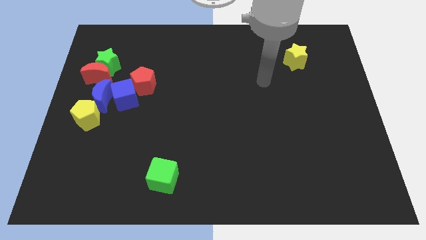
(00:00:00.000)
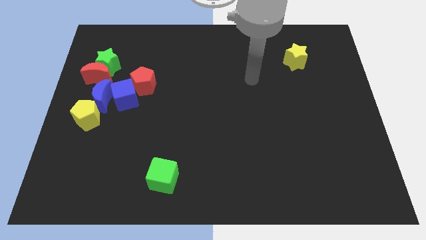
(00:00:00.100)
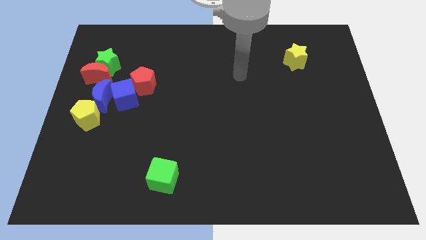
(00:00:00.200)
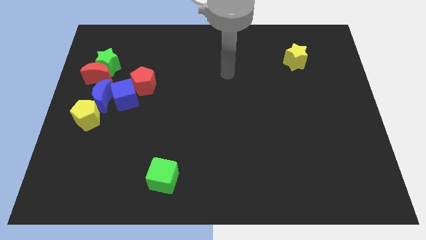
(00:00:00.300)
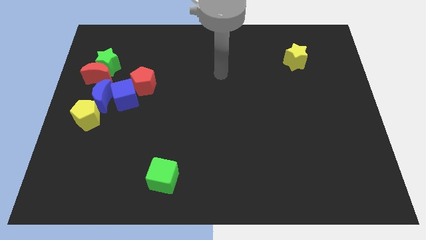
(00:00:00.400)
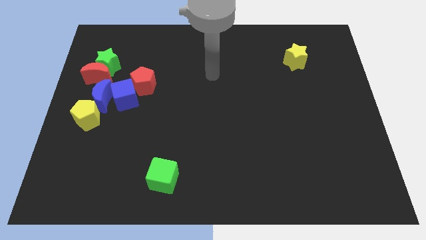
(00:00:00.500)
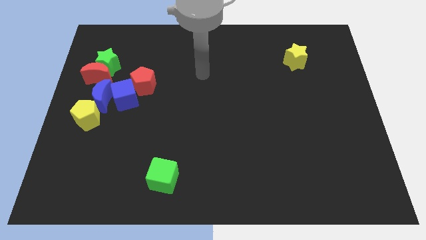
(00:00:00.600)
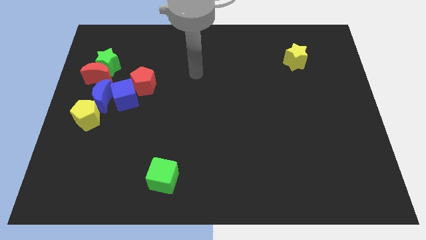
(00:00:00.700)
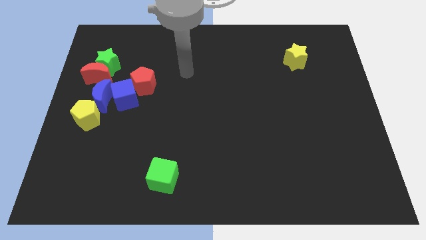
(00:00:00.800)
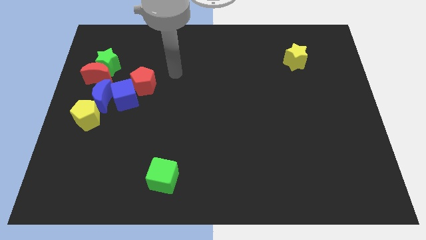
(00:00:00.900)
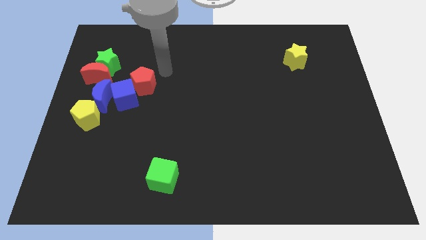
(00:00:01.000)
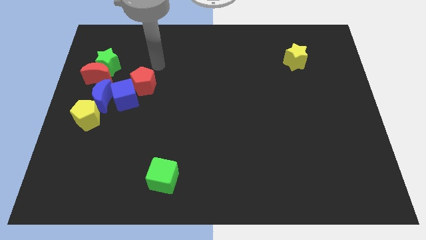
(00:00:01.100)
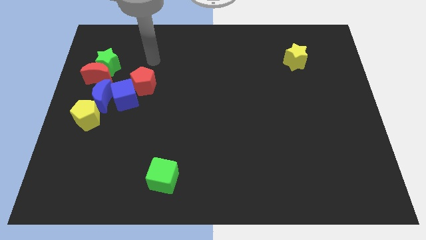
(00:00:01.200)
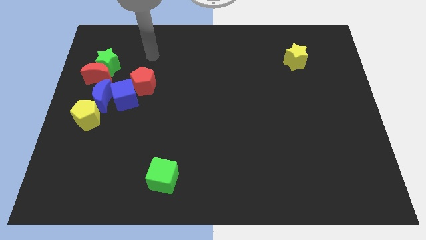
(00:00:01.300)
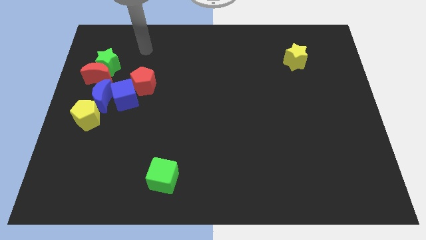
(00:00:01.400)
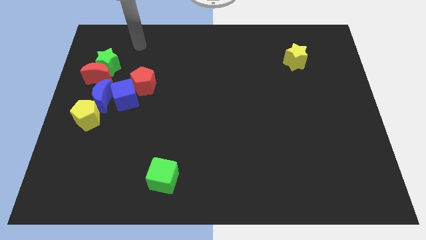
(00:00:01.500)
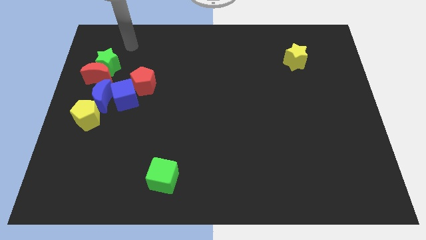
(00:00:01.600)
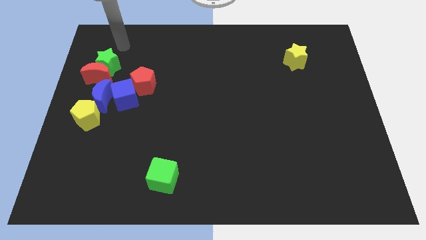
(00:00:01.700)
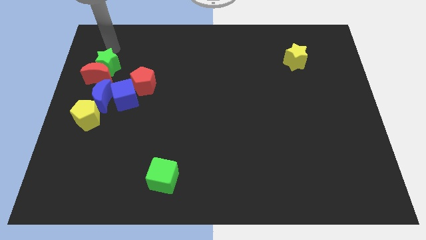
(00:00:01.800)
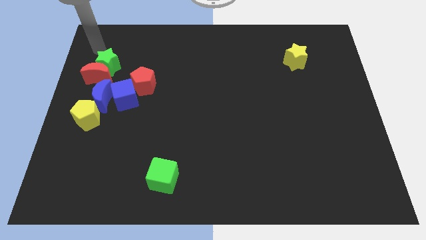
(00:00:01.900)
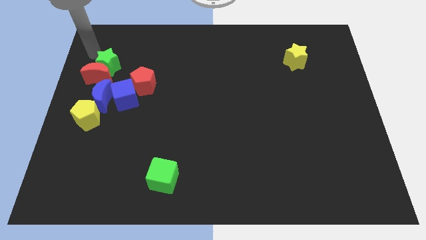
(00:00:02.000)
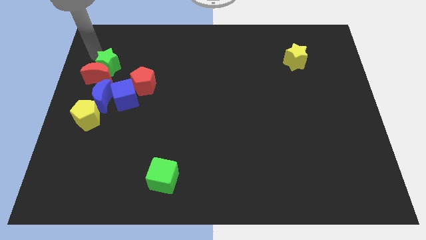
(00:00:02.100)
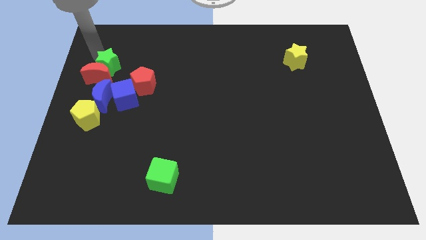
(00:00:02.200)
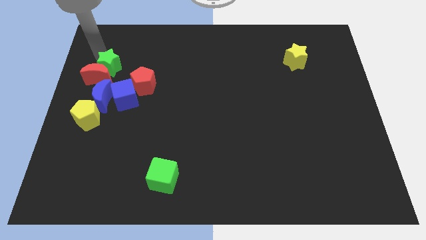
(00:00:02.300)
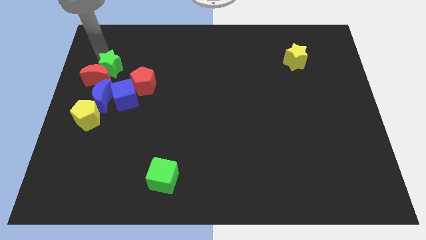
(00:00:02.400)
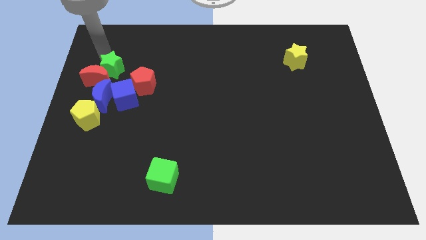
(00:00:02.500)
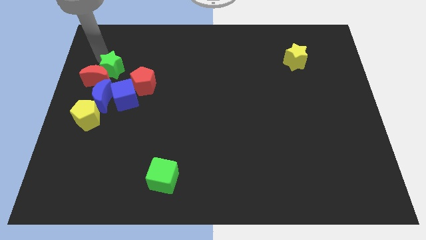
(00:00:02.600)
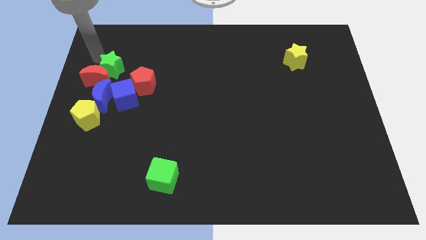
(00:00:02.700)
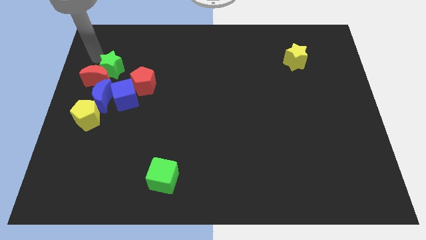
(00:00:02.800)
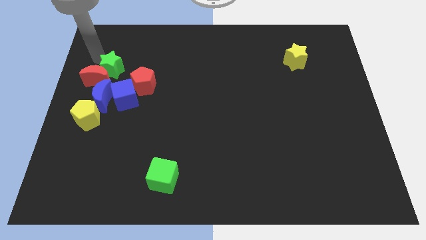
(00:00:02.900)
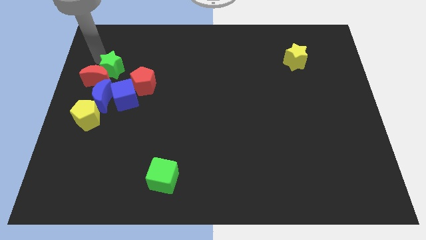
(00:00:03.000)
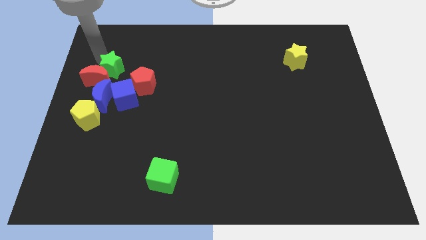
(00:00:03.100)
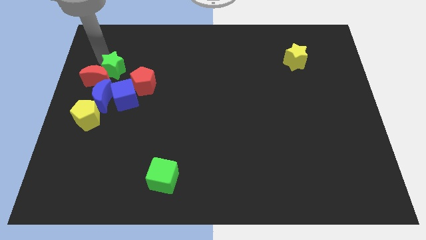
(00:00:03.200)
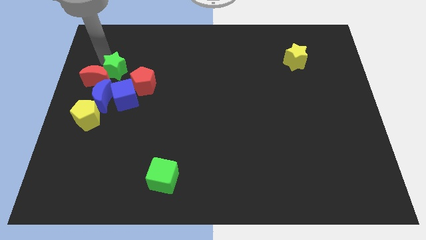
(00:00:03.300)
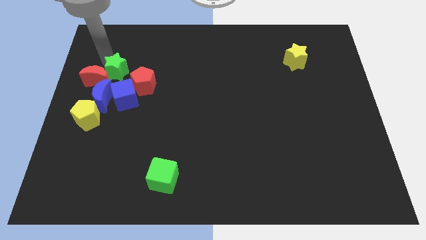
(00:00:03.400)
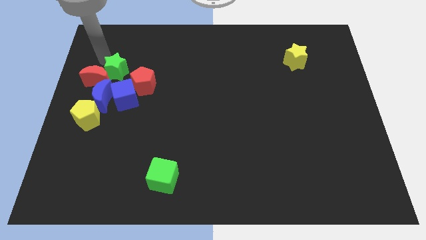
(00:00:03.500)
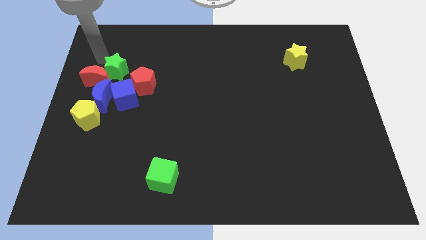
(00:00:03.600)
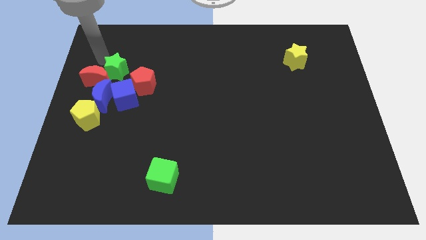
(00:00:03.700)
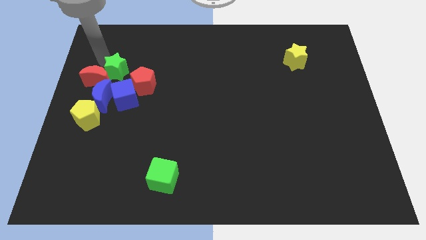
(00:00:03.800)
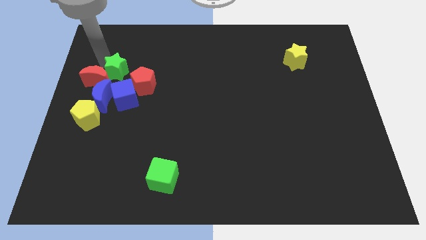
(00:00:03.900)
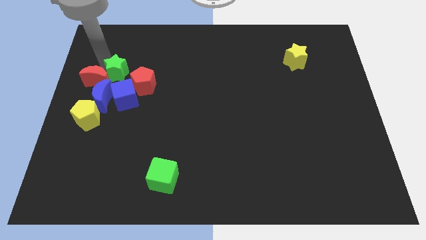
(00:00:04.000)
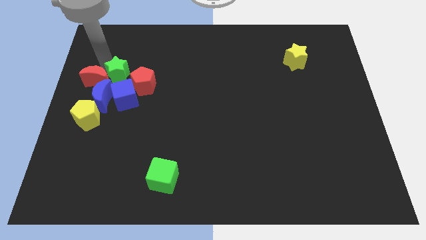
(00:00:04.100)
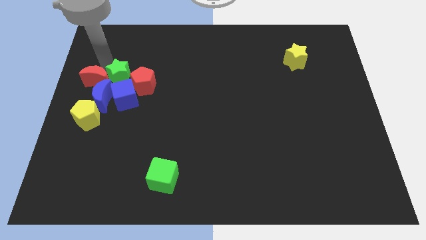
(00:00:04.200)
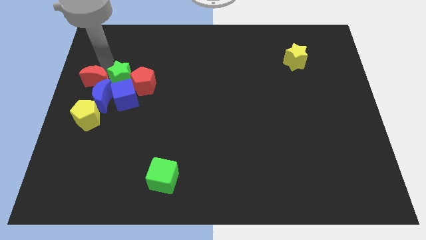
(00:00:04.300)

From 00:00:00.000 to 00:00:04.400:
put the green star to the red pentagon

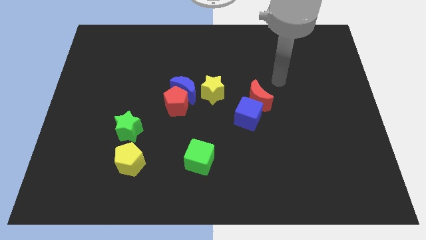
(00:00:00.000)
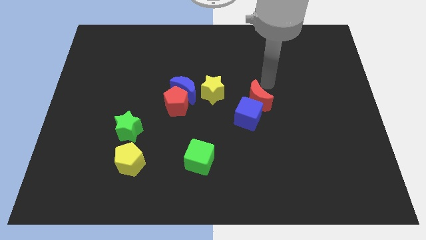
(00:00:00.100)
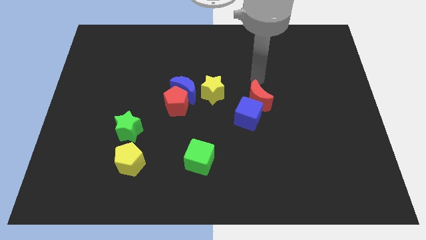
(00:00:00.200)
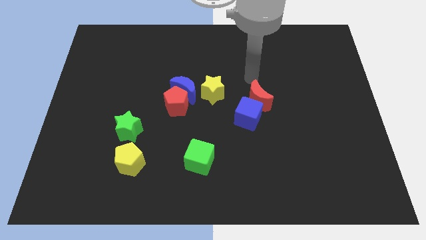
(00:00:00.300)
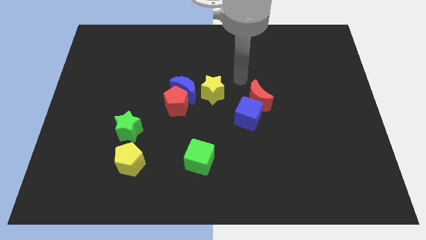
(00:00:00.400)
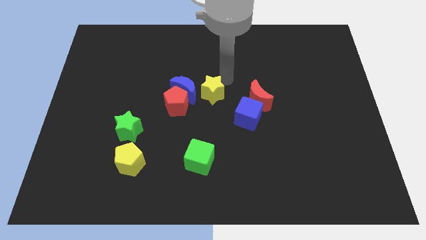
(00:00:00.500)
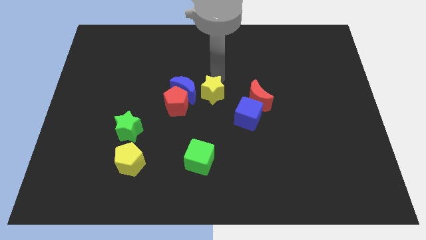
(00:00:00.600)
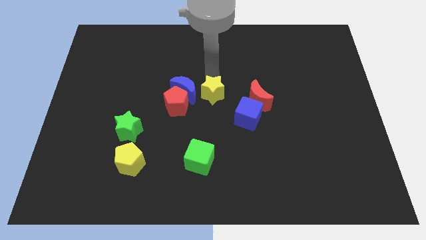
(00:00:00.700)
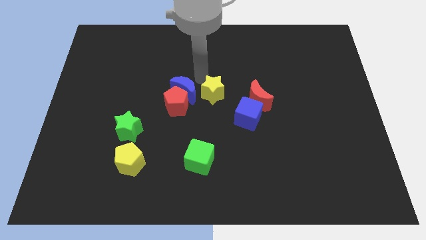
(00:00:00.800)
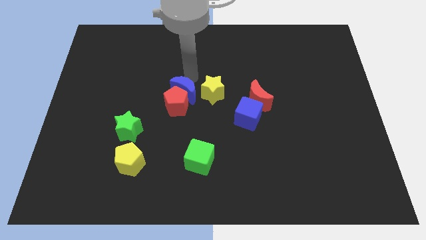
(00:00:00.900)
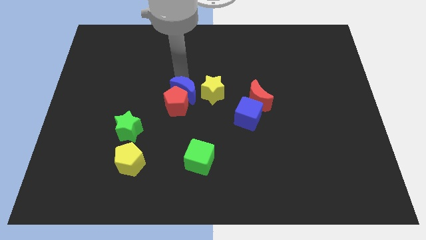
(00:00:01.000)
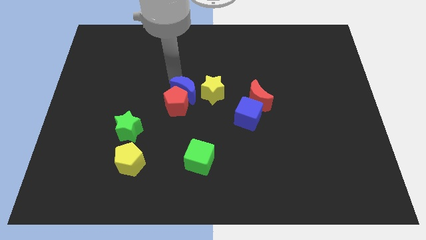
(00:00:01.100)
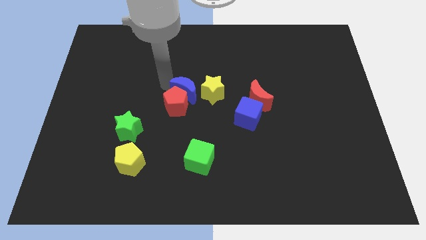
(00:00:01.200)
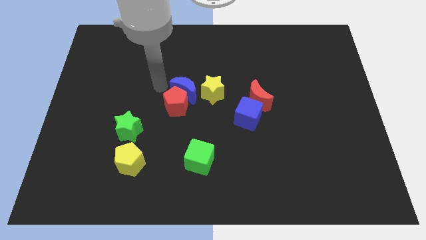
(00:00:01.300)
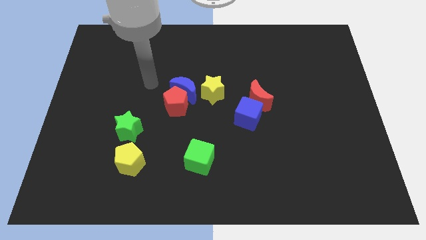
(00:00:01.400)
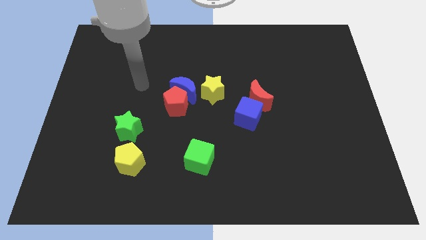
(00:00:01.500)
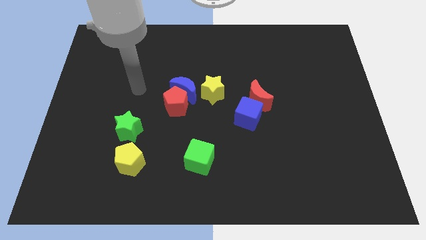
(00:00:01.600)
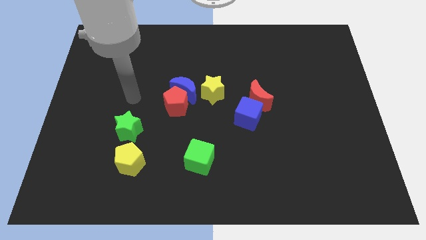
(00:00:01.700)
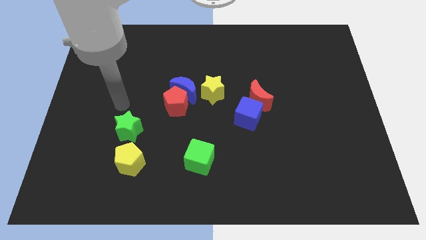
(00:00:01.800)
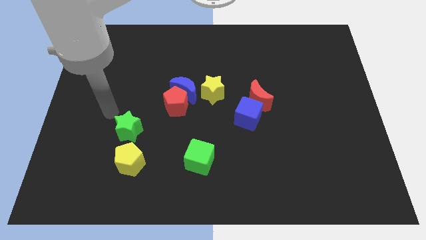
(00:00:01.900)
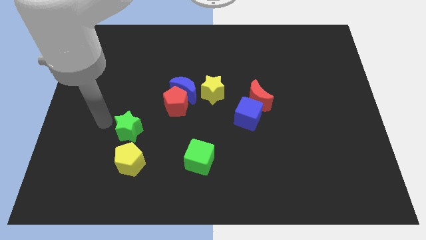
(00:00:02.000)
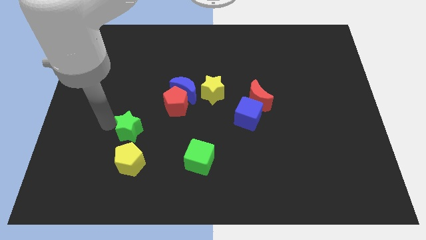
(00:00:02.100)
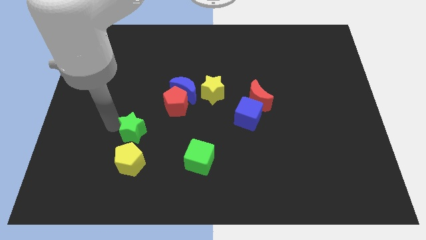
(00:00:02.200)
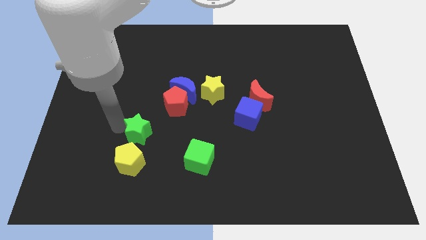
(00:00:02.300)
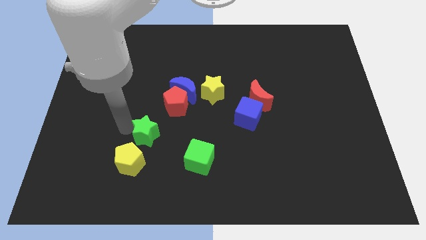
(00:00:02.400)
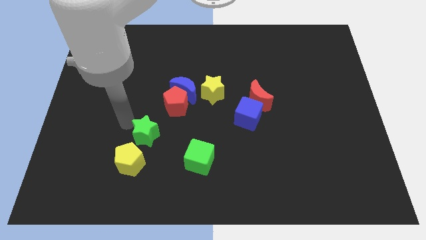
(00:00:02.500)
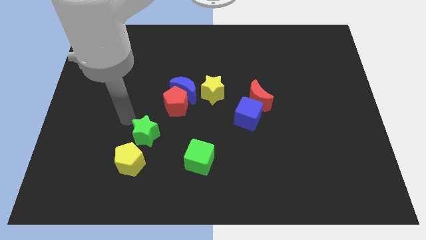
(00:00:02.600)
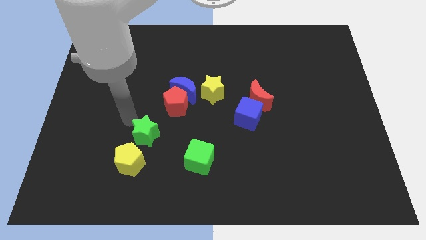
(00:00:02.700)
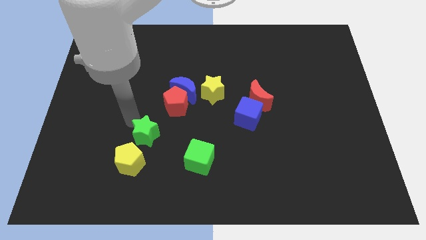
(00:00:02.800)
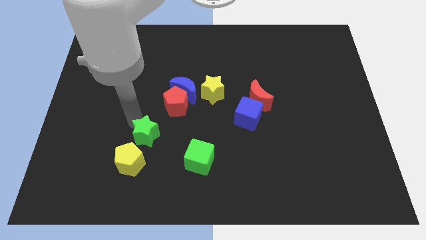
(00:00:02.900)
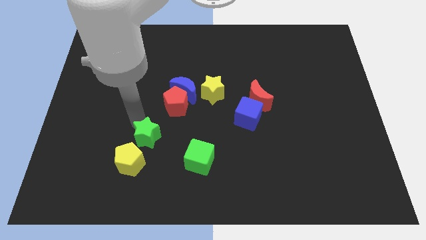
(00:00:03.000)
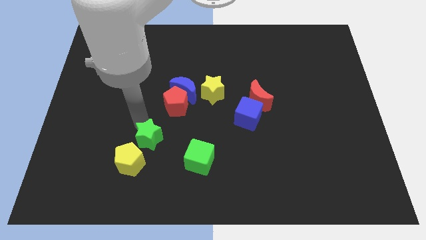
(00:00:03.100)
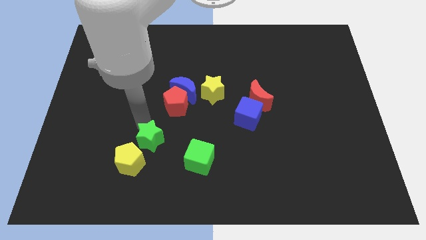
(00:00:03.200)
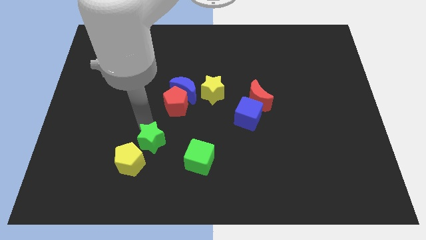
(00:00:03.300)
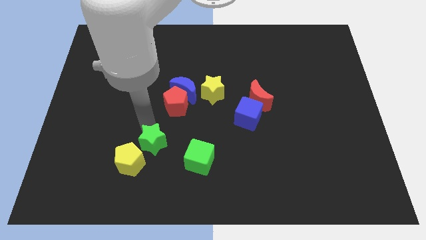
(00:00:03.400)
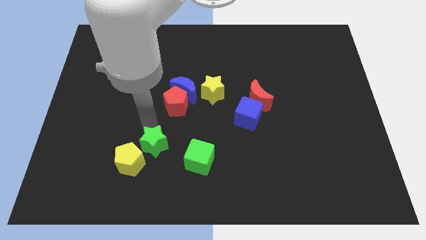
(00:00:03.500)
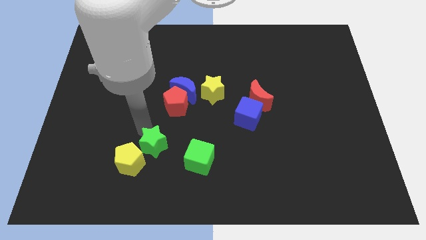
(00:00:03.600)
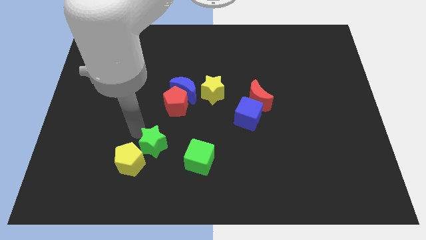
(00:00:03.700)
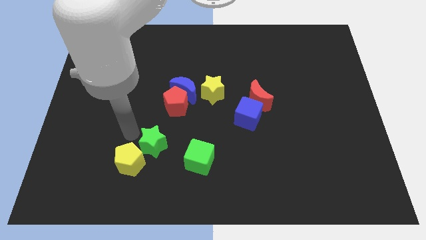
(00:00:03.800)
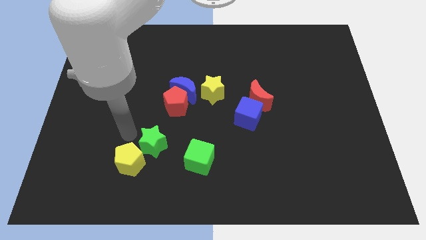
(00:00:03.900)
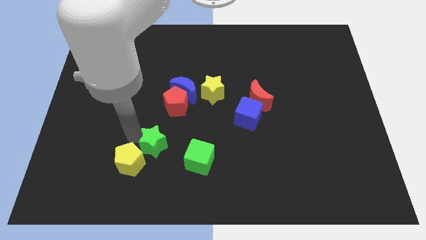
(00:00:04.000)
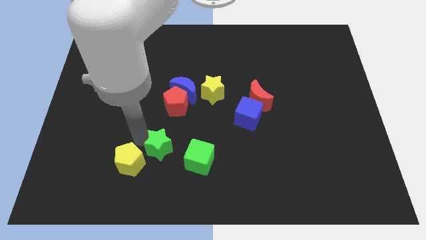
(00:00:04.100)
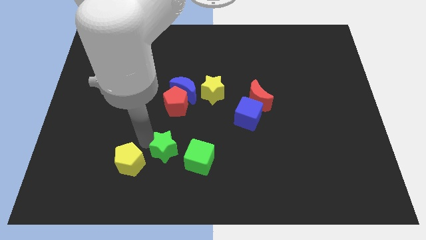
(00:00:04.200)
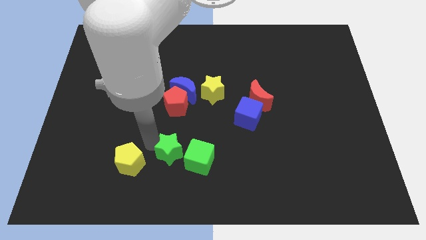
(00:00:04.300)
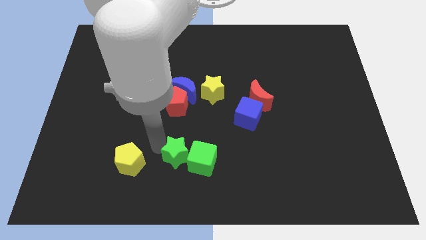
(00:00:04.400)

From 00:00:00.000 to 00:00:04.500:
move the green star to the green cube
